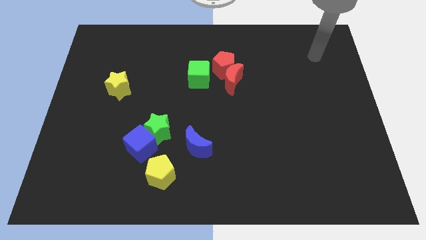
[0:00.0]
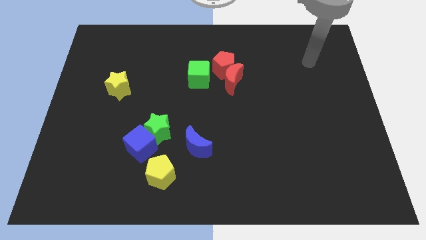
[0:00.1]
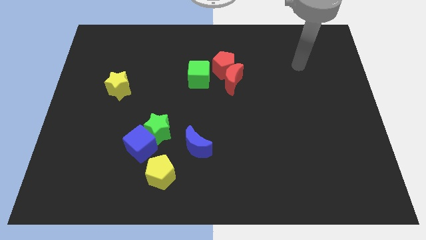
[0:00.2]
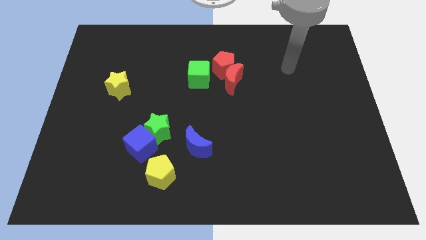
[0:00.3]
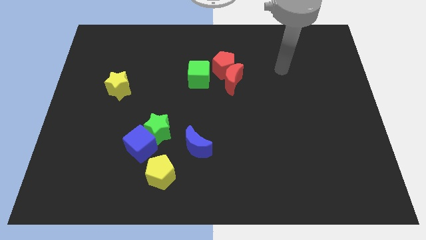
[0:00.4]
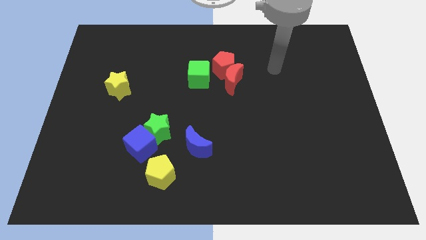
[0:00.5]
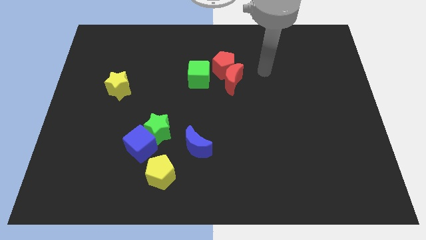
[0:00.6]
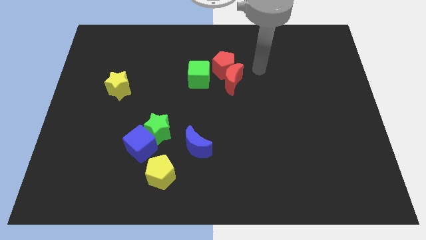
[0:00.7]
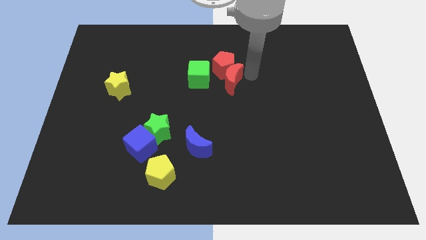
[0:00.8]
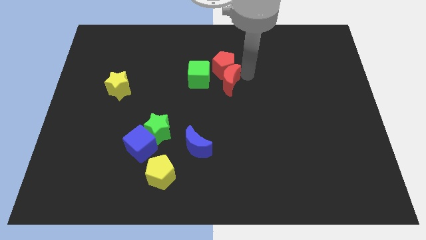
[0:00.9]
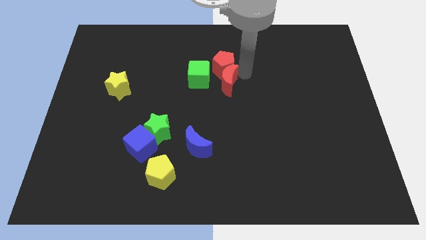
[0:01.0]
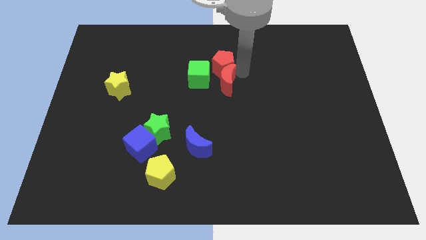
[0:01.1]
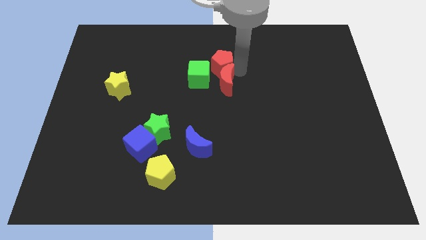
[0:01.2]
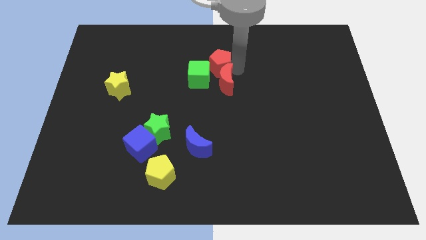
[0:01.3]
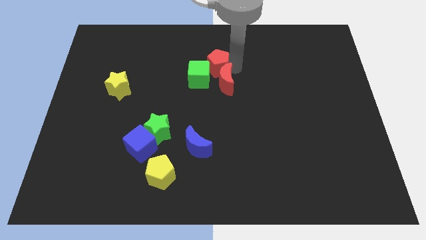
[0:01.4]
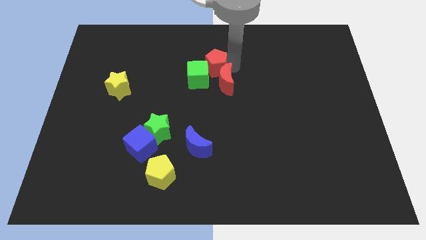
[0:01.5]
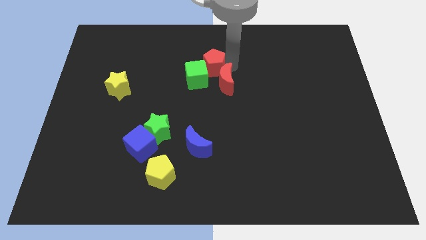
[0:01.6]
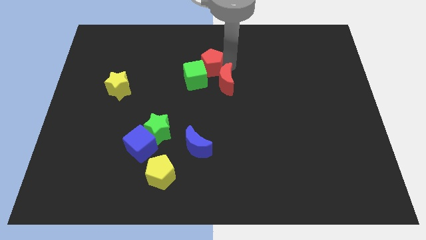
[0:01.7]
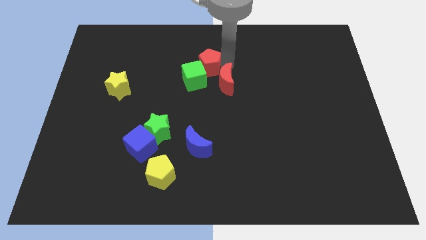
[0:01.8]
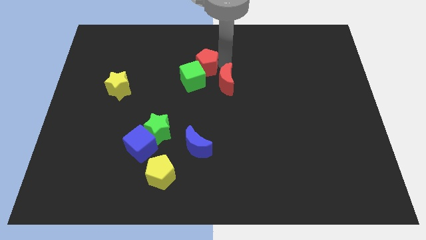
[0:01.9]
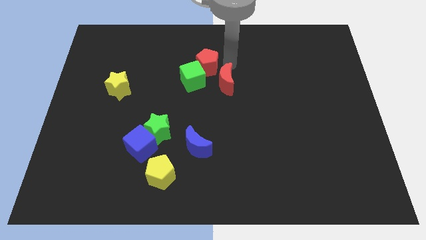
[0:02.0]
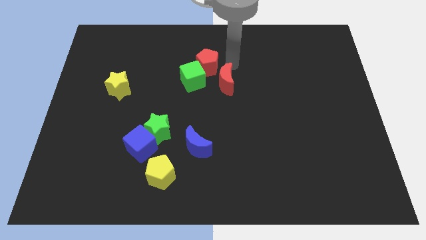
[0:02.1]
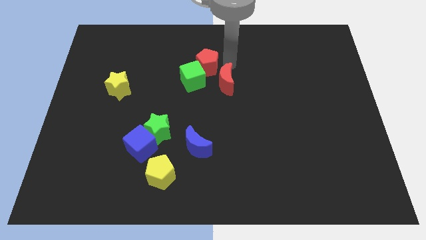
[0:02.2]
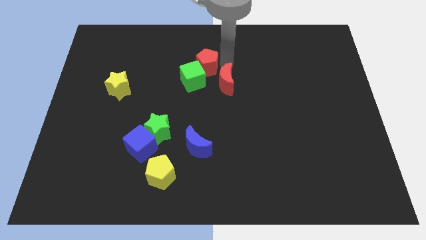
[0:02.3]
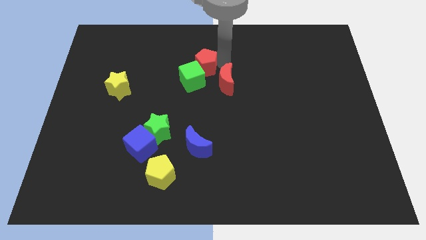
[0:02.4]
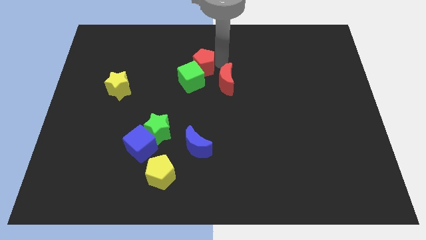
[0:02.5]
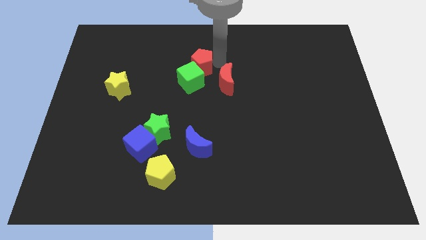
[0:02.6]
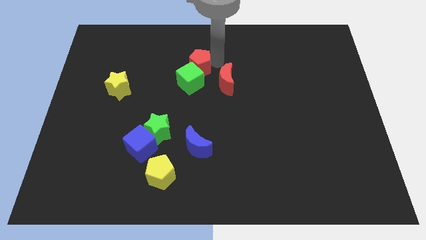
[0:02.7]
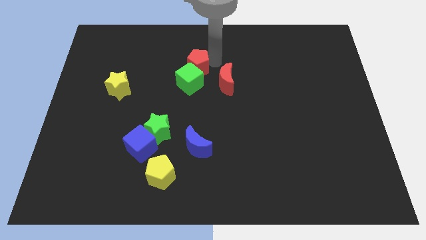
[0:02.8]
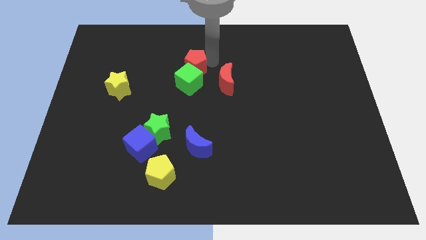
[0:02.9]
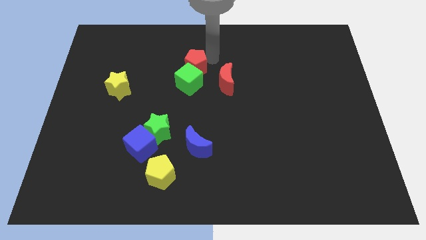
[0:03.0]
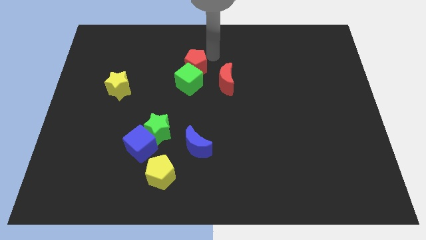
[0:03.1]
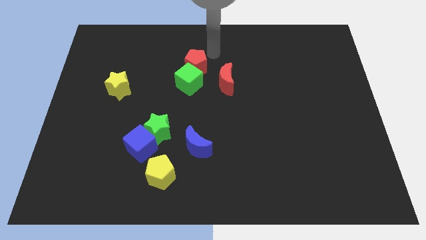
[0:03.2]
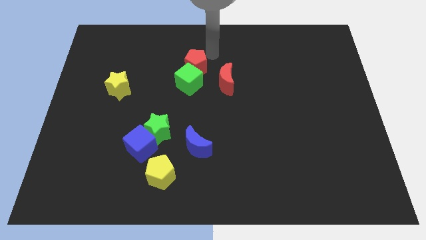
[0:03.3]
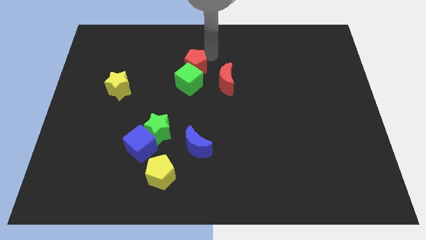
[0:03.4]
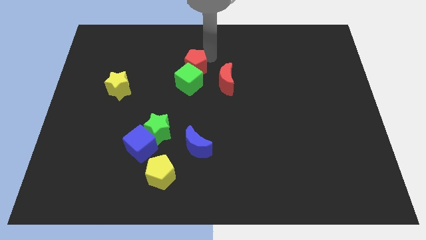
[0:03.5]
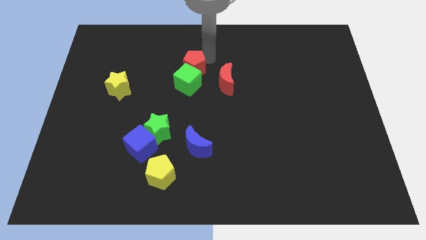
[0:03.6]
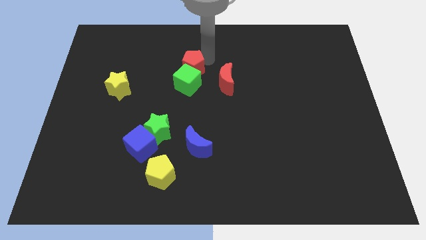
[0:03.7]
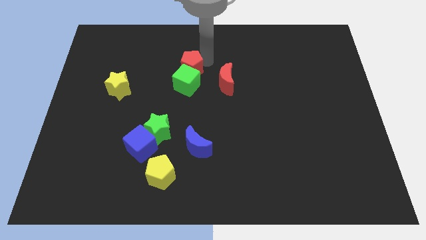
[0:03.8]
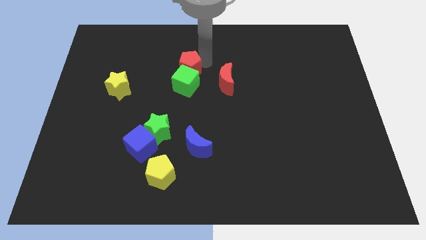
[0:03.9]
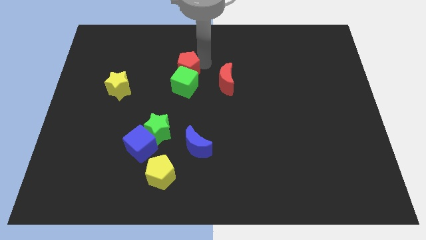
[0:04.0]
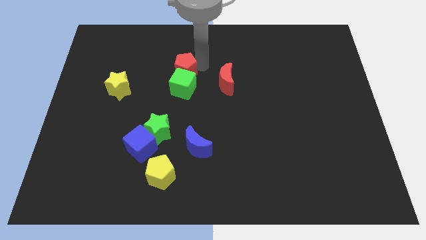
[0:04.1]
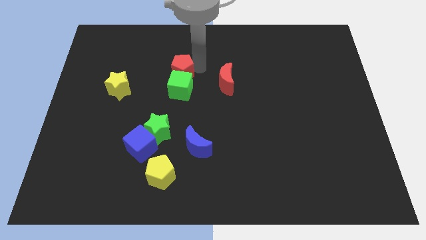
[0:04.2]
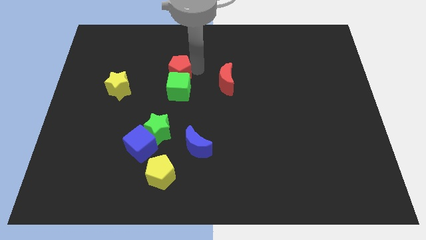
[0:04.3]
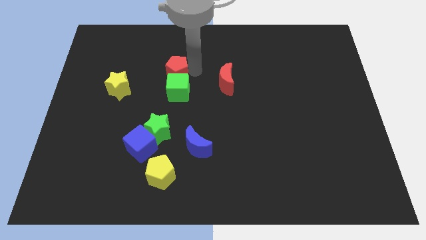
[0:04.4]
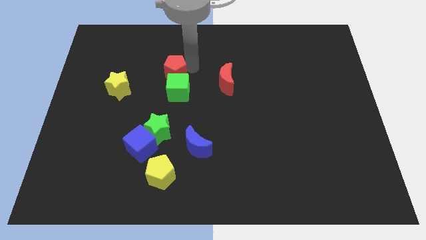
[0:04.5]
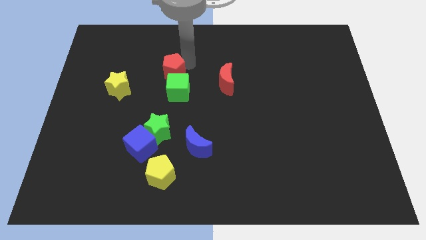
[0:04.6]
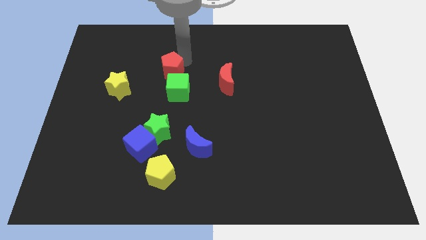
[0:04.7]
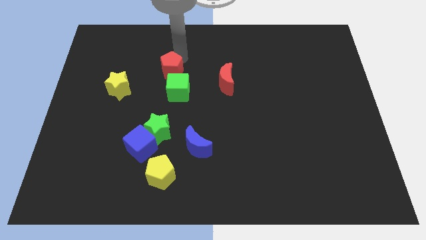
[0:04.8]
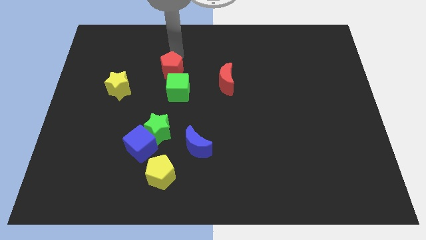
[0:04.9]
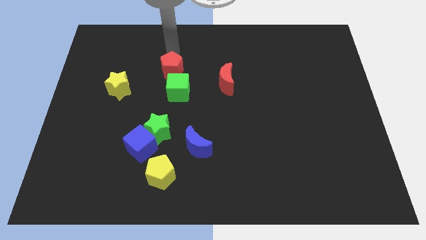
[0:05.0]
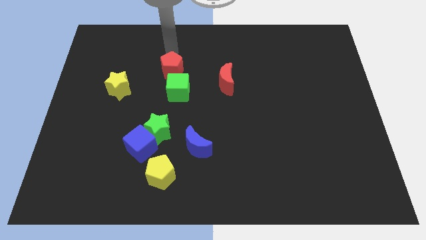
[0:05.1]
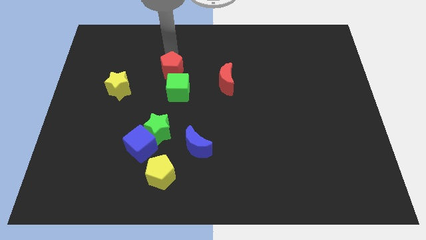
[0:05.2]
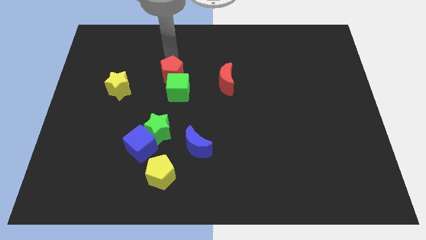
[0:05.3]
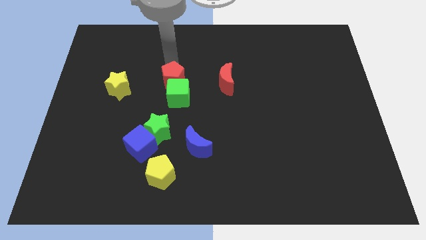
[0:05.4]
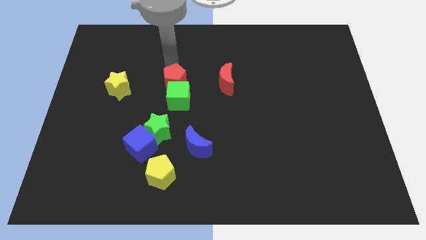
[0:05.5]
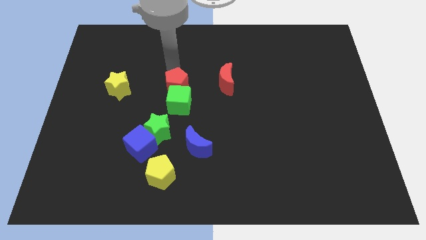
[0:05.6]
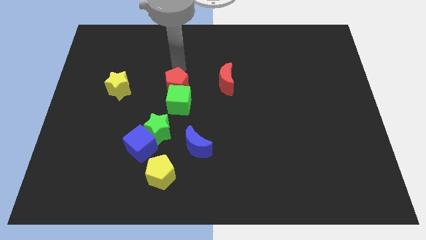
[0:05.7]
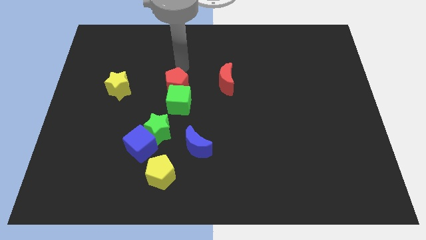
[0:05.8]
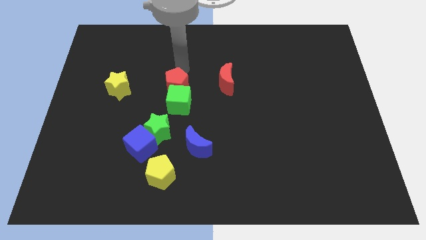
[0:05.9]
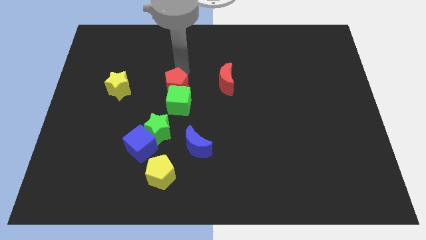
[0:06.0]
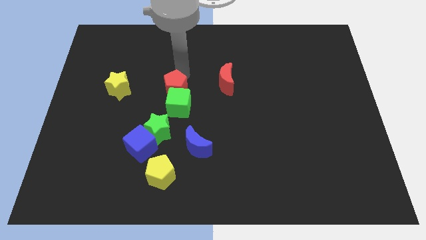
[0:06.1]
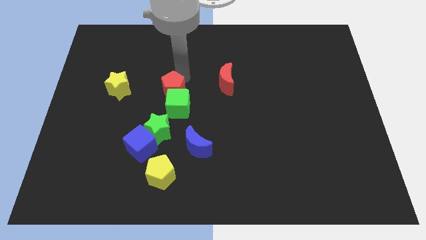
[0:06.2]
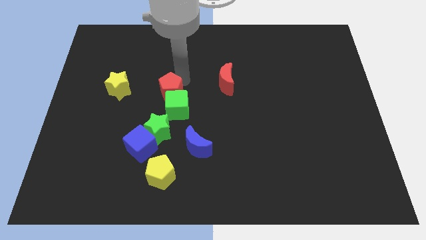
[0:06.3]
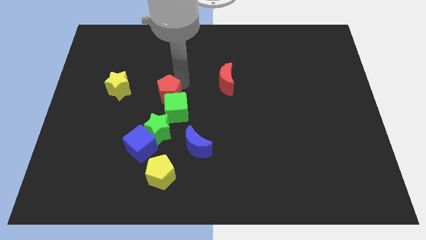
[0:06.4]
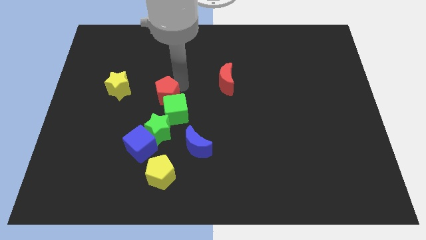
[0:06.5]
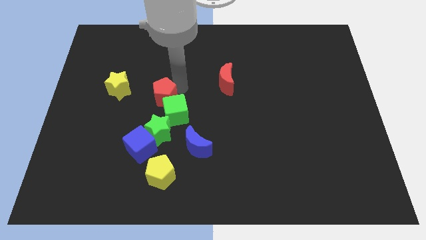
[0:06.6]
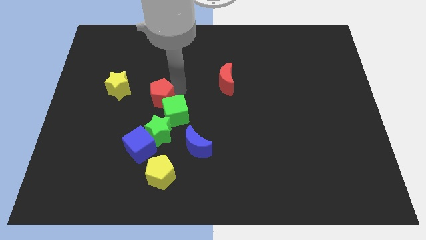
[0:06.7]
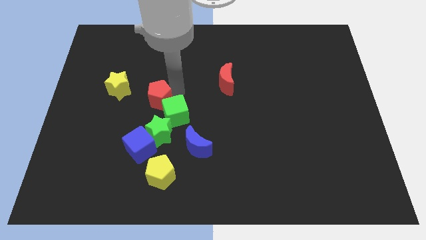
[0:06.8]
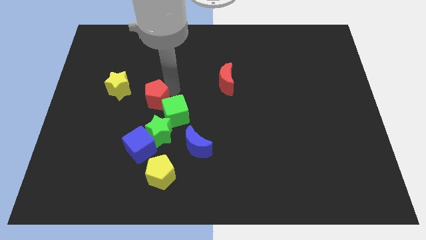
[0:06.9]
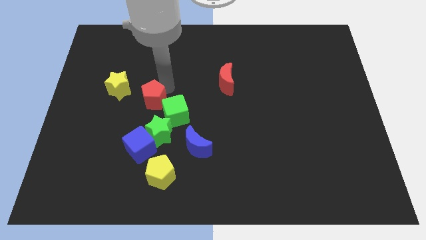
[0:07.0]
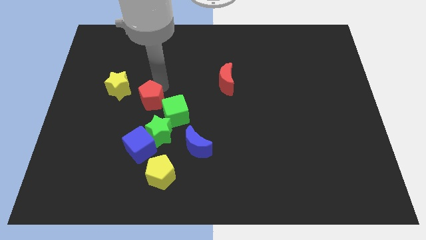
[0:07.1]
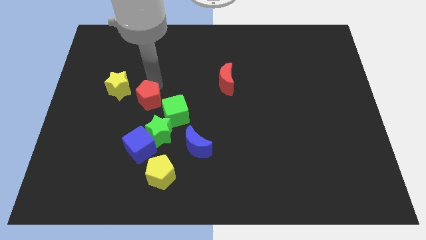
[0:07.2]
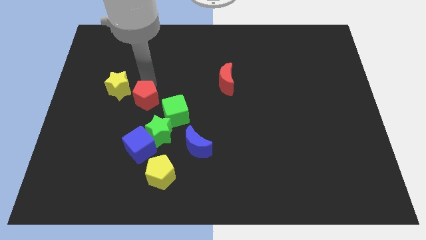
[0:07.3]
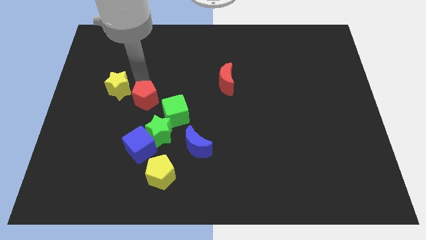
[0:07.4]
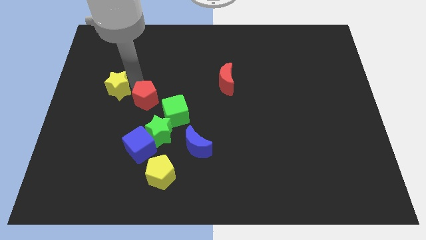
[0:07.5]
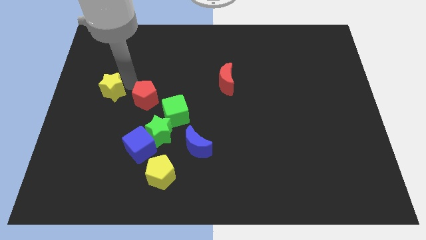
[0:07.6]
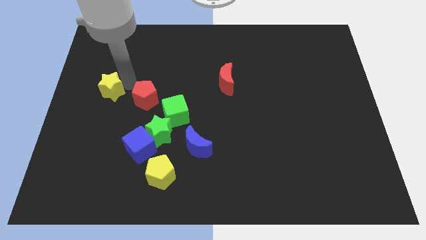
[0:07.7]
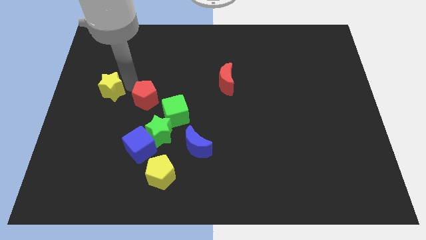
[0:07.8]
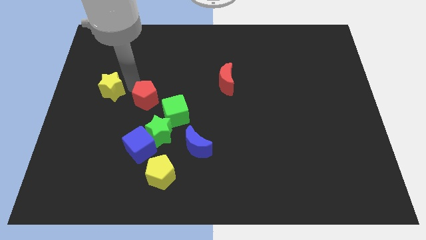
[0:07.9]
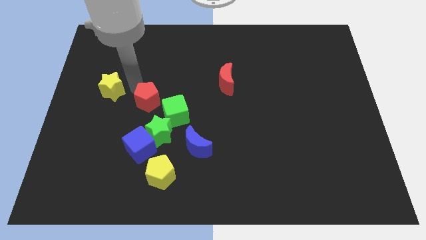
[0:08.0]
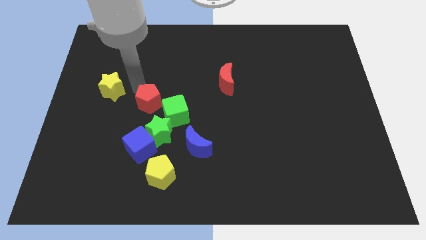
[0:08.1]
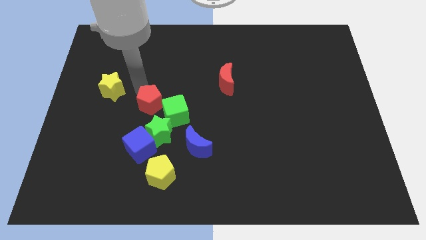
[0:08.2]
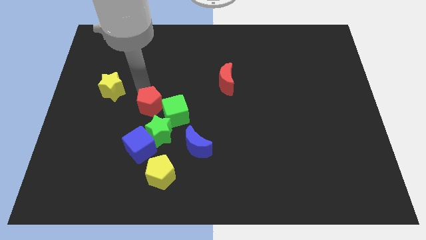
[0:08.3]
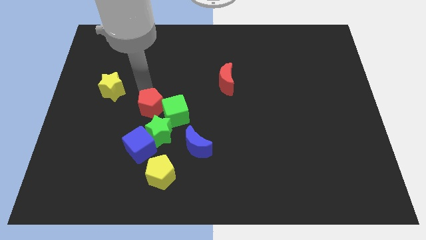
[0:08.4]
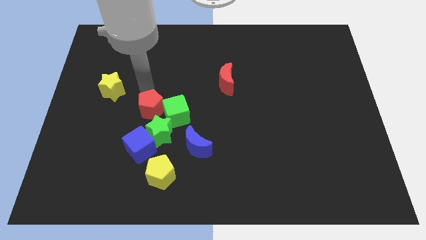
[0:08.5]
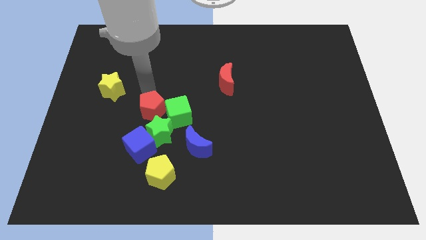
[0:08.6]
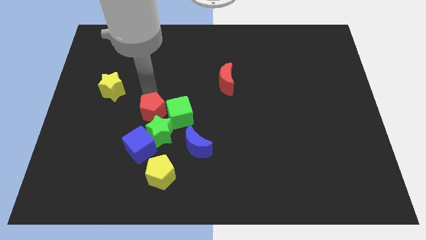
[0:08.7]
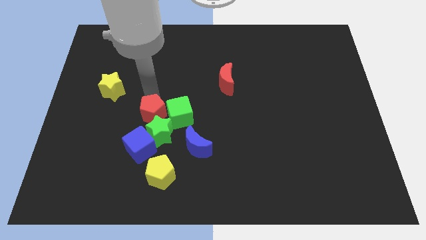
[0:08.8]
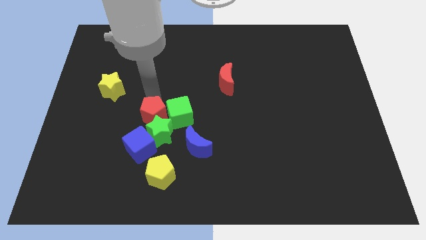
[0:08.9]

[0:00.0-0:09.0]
push the red pentagon close to the green star
